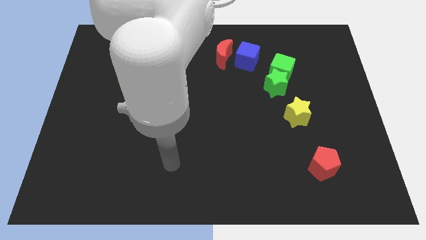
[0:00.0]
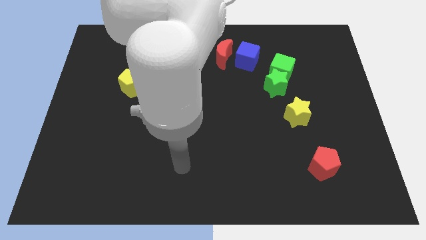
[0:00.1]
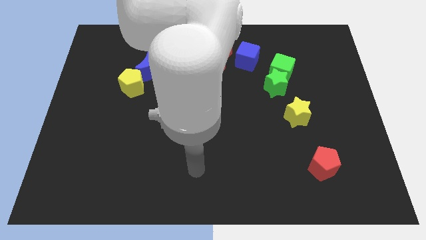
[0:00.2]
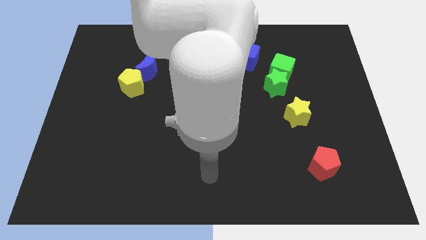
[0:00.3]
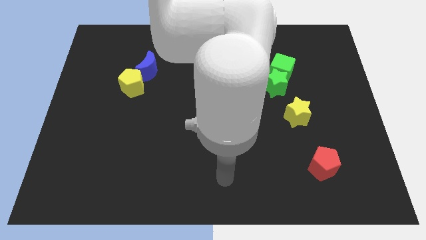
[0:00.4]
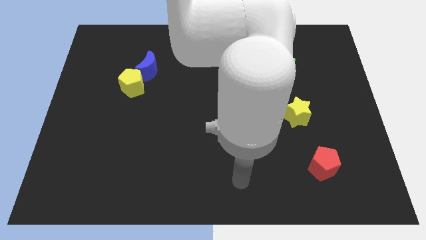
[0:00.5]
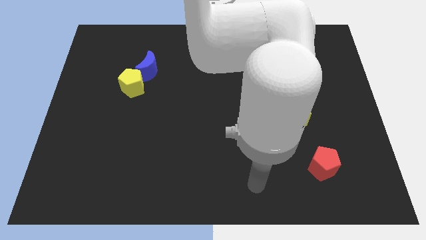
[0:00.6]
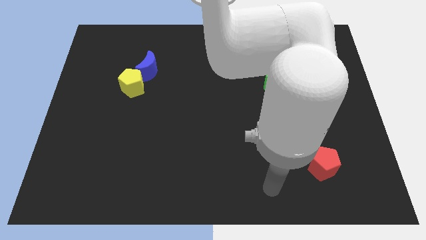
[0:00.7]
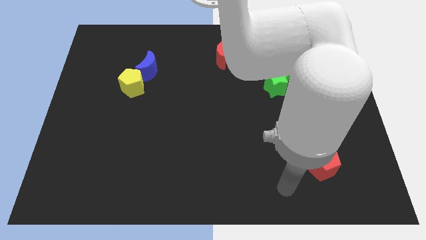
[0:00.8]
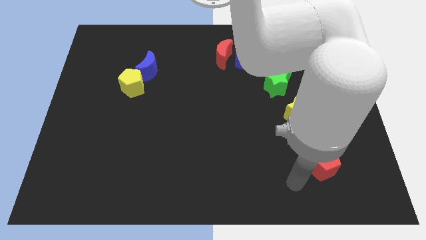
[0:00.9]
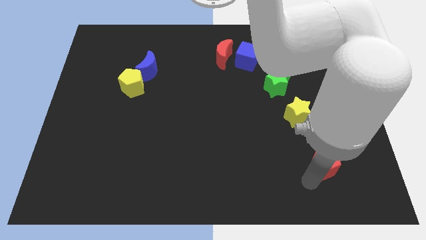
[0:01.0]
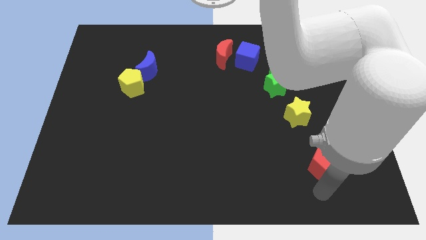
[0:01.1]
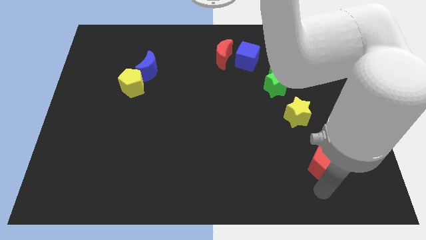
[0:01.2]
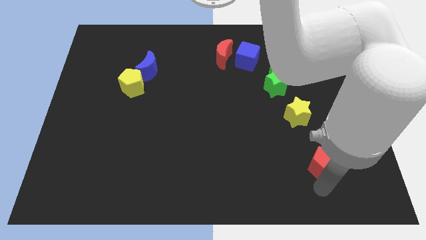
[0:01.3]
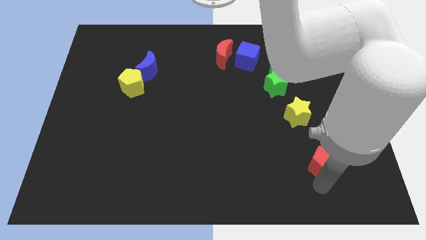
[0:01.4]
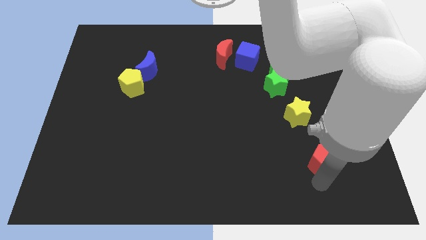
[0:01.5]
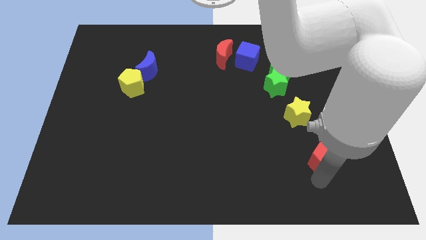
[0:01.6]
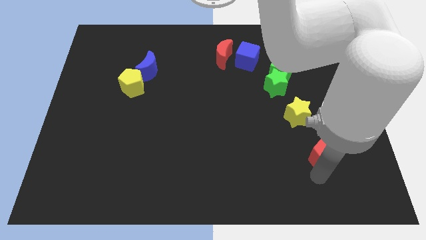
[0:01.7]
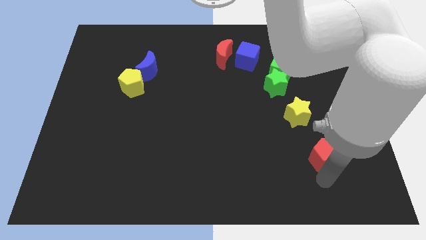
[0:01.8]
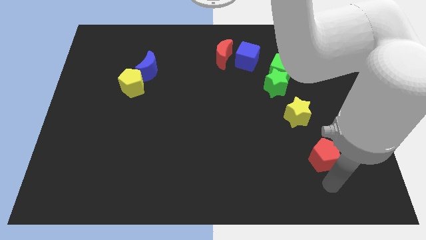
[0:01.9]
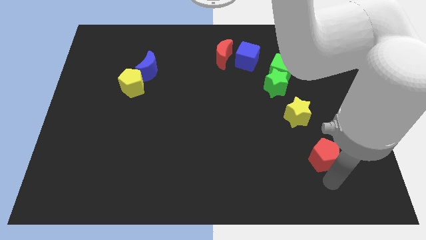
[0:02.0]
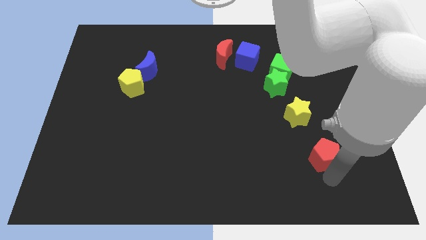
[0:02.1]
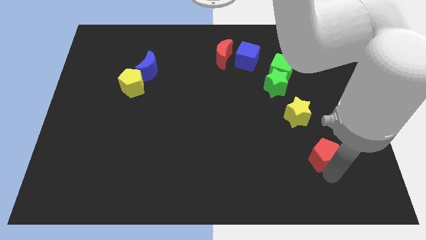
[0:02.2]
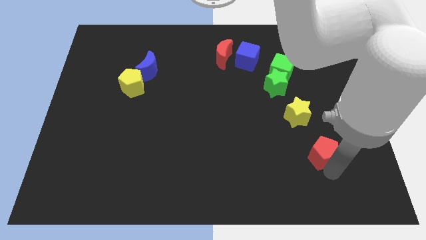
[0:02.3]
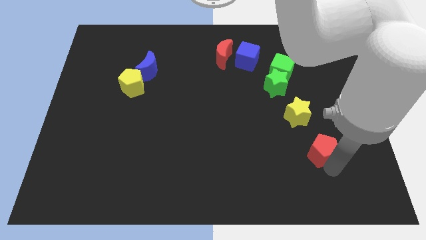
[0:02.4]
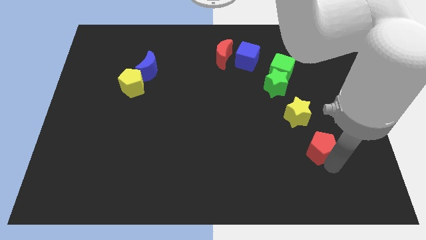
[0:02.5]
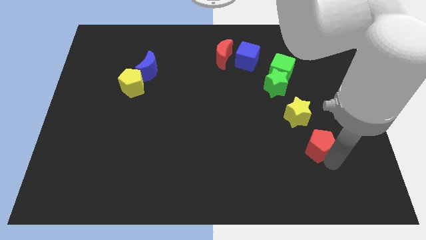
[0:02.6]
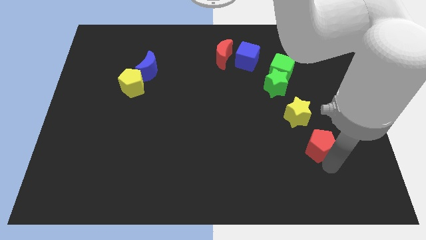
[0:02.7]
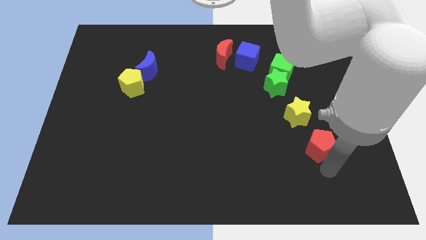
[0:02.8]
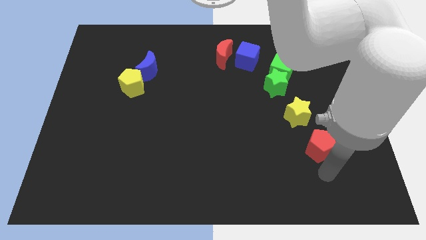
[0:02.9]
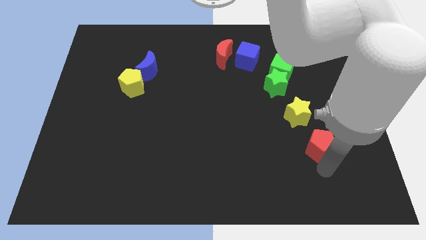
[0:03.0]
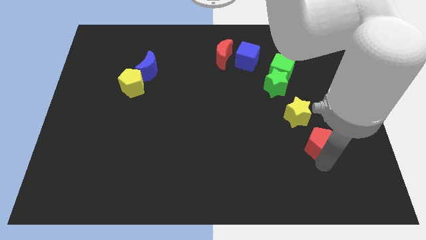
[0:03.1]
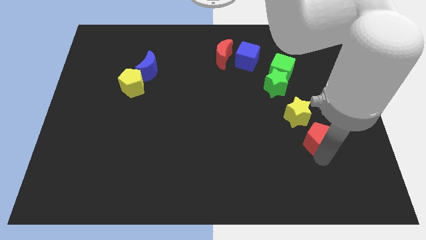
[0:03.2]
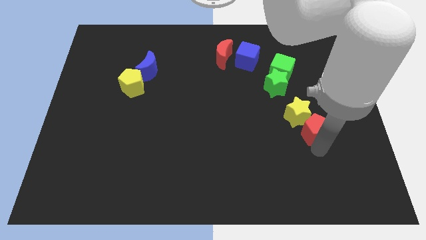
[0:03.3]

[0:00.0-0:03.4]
slightly push the red pentagon up

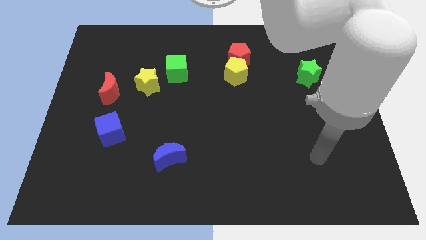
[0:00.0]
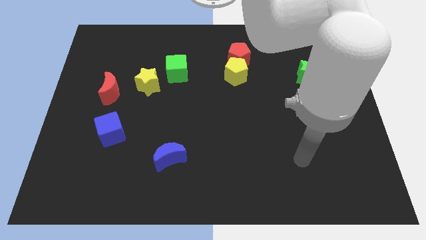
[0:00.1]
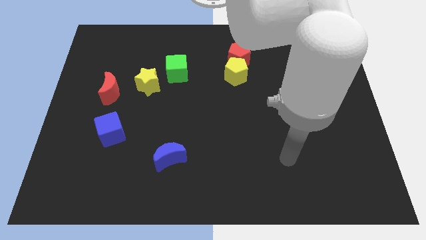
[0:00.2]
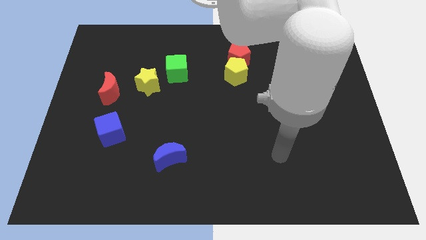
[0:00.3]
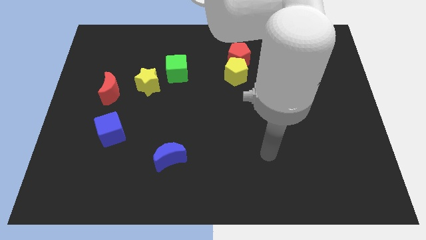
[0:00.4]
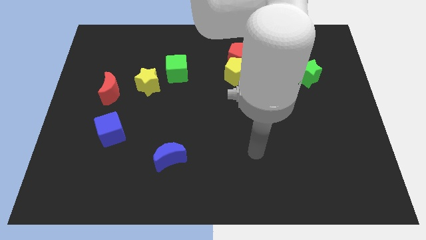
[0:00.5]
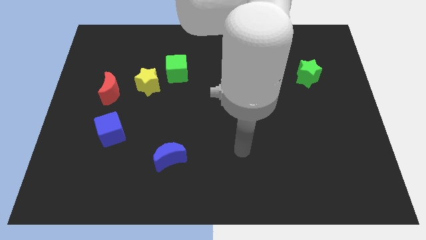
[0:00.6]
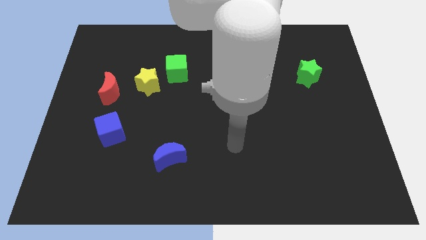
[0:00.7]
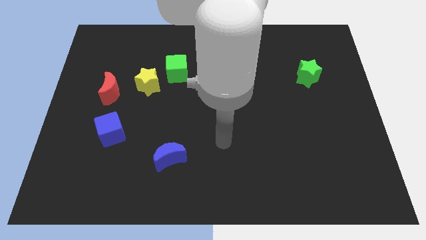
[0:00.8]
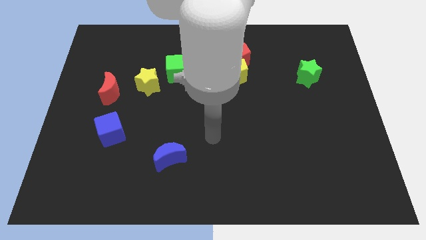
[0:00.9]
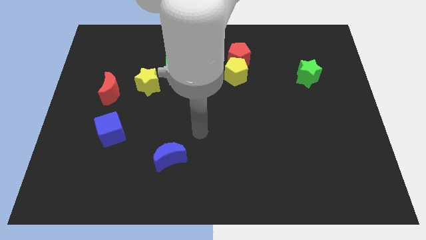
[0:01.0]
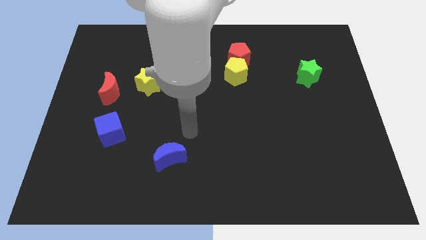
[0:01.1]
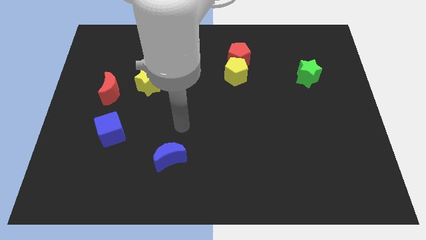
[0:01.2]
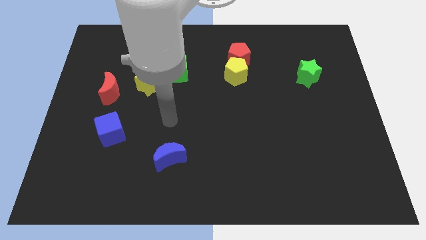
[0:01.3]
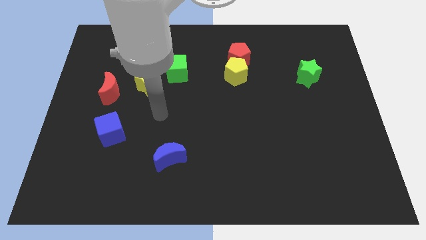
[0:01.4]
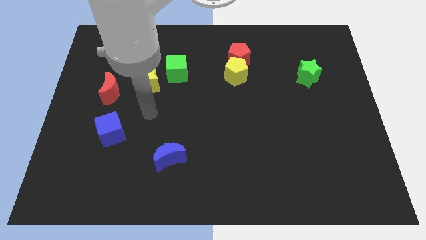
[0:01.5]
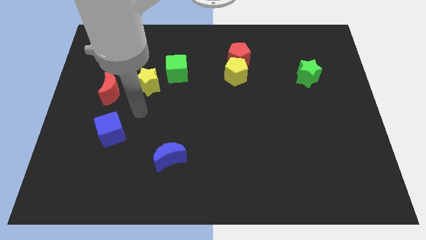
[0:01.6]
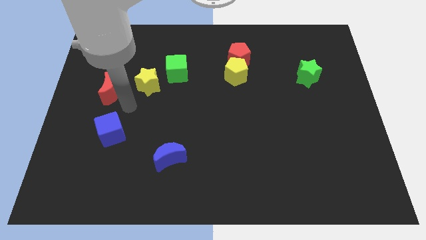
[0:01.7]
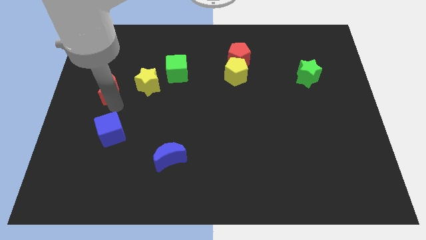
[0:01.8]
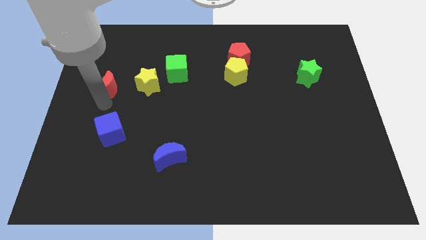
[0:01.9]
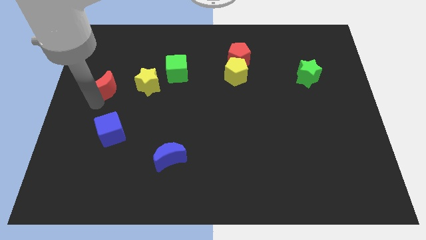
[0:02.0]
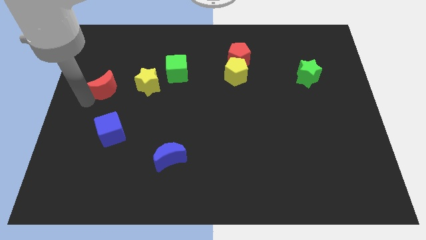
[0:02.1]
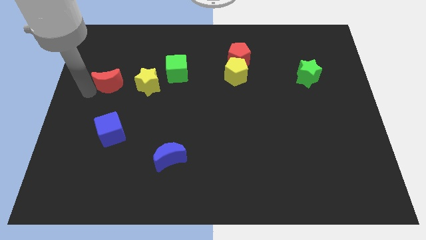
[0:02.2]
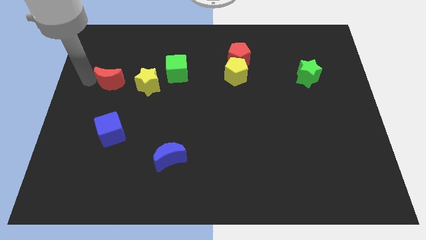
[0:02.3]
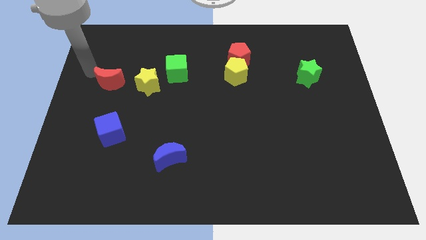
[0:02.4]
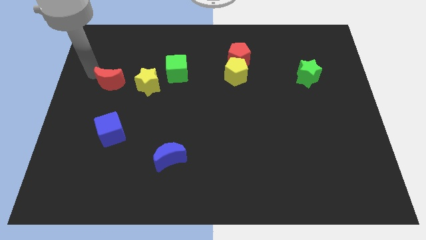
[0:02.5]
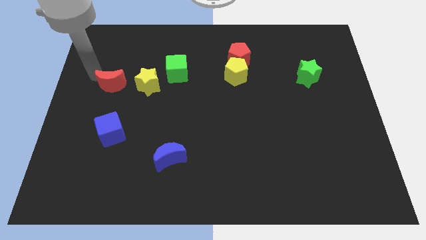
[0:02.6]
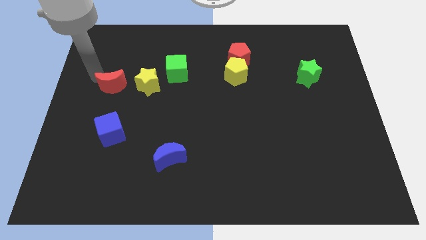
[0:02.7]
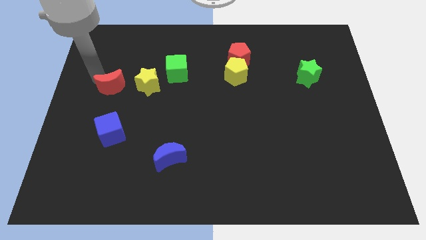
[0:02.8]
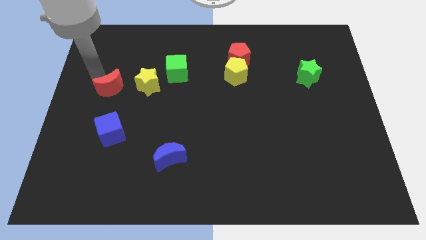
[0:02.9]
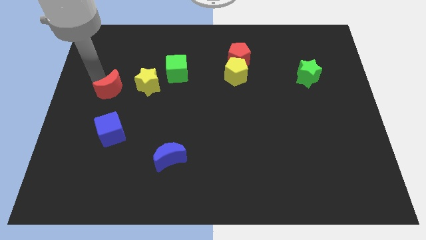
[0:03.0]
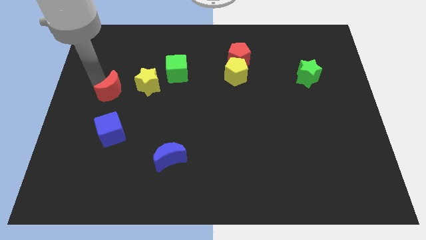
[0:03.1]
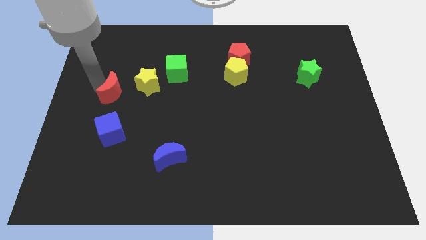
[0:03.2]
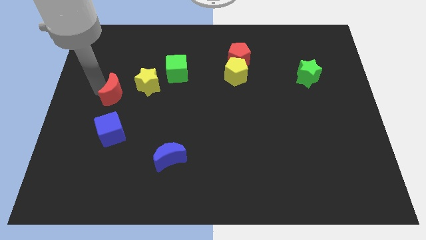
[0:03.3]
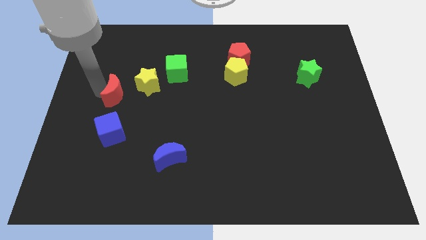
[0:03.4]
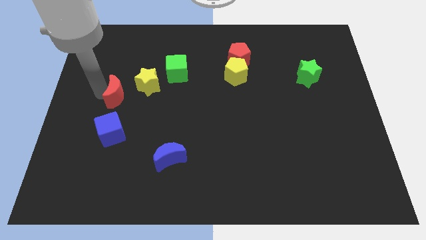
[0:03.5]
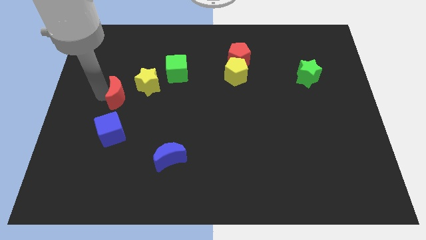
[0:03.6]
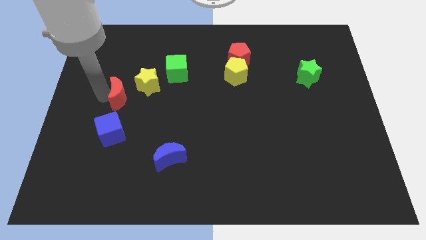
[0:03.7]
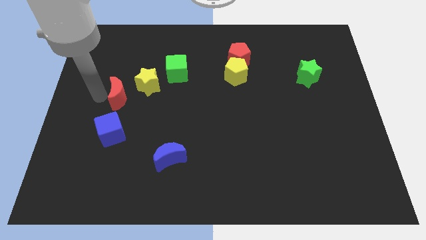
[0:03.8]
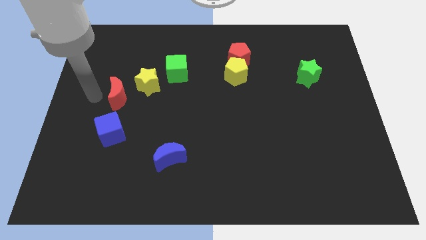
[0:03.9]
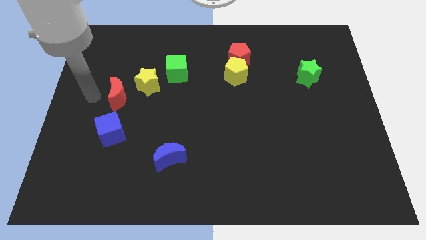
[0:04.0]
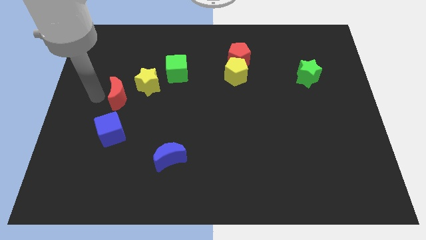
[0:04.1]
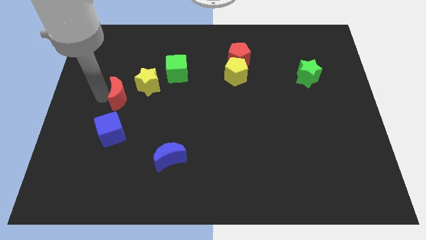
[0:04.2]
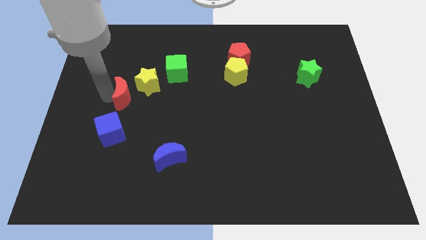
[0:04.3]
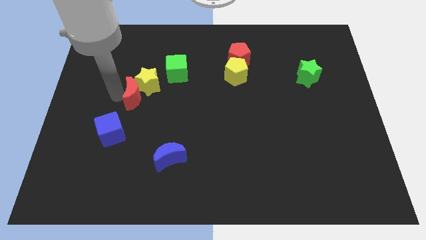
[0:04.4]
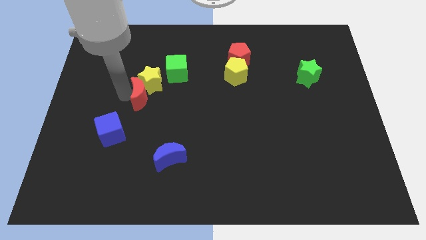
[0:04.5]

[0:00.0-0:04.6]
slightly push the red moon to the right

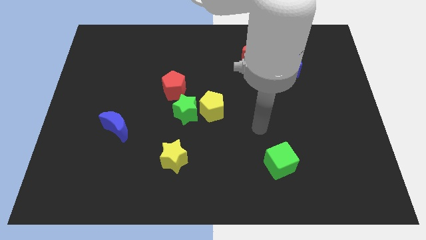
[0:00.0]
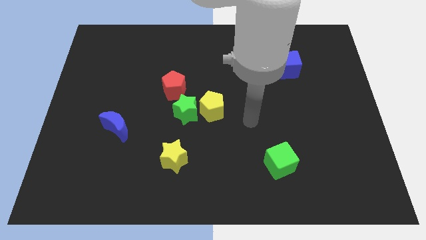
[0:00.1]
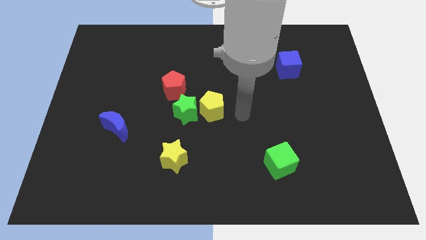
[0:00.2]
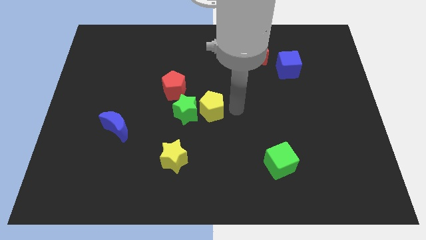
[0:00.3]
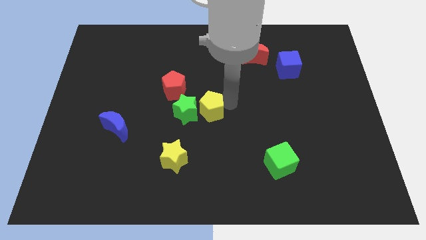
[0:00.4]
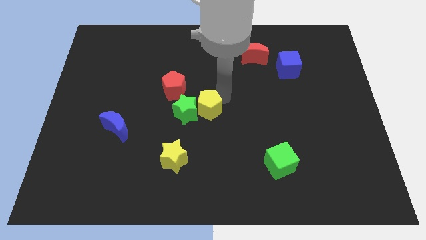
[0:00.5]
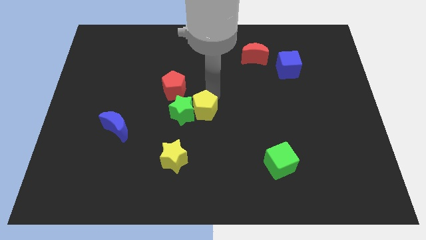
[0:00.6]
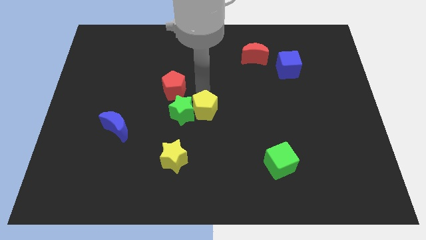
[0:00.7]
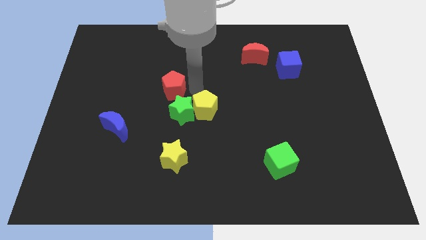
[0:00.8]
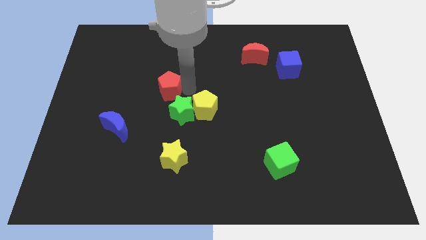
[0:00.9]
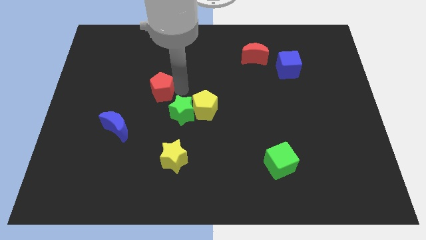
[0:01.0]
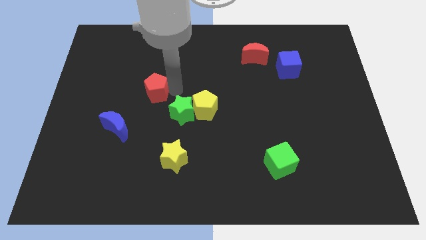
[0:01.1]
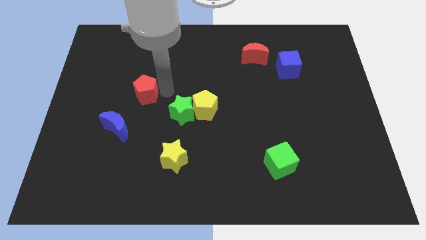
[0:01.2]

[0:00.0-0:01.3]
push the red pentagon left a little bit
